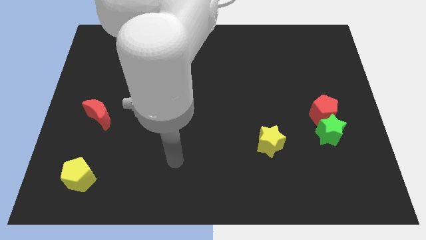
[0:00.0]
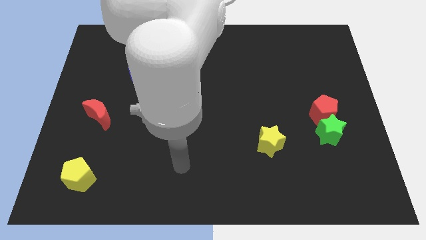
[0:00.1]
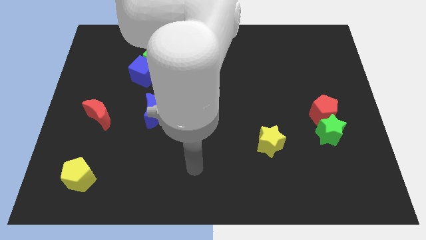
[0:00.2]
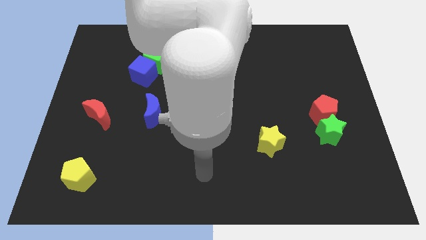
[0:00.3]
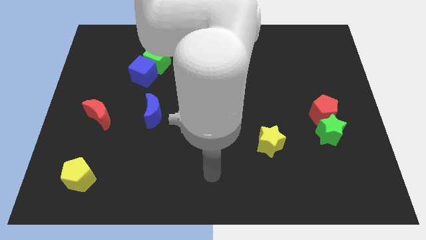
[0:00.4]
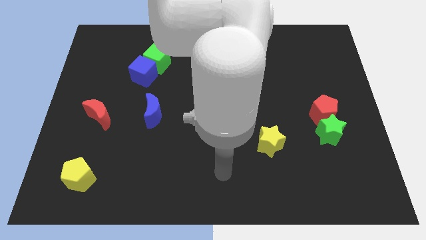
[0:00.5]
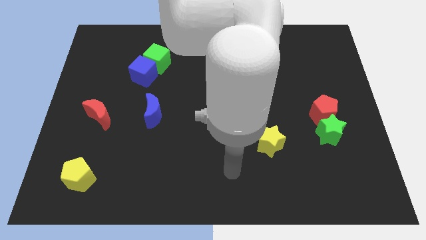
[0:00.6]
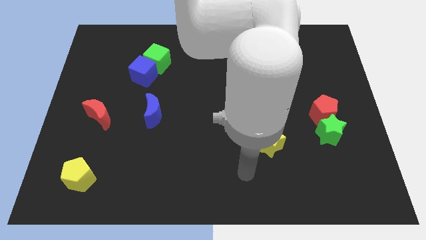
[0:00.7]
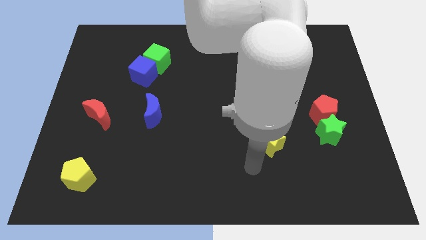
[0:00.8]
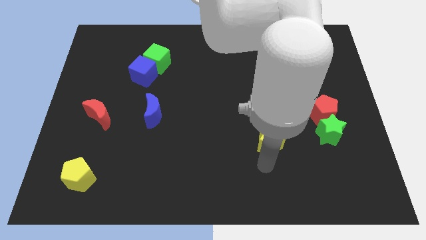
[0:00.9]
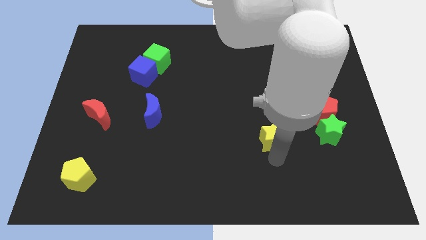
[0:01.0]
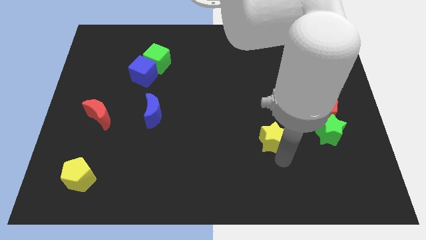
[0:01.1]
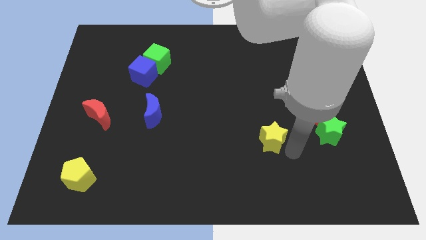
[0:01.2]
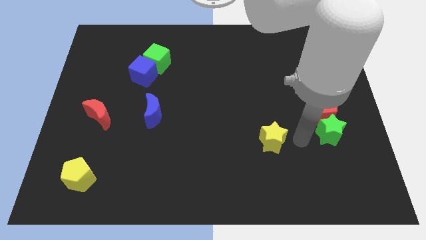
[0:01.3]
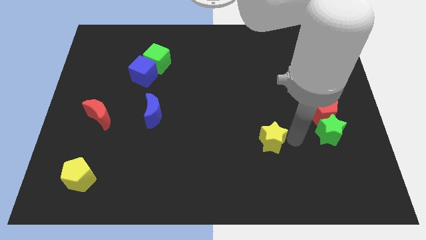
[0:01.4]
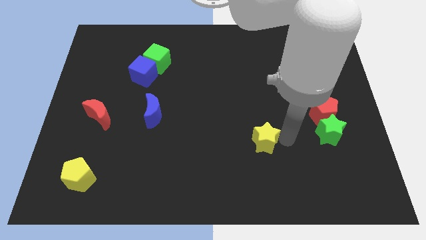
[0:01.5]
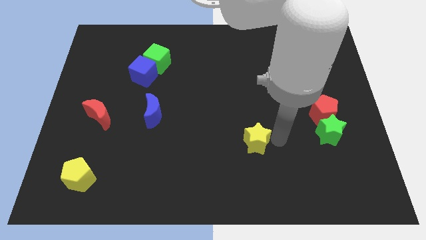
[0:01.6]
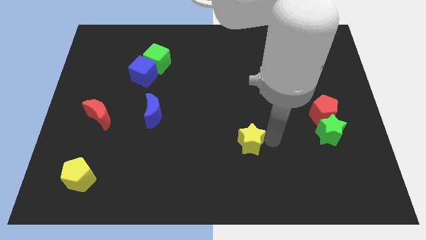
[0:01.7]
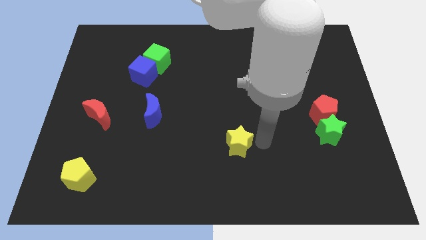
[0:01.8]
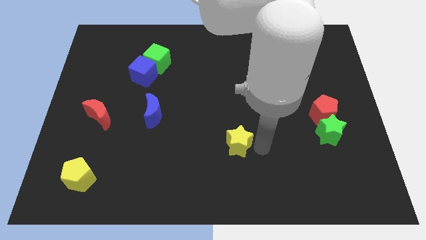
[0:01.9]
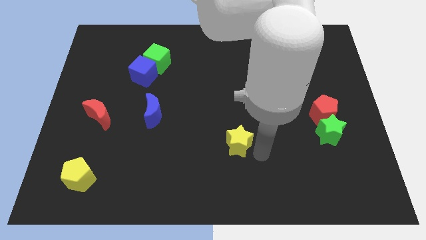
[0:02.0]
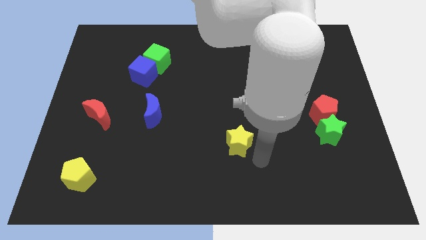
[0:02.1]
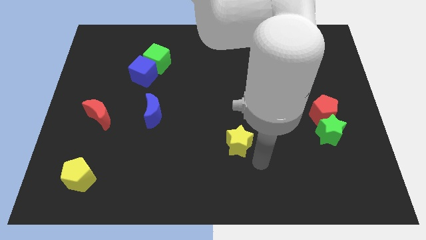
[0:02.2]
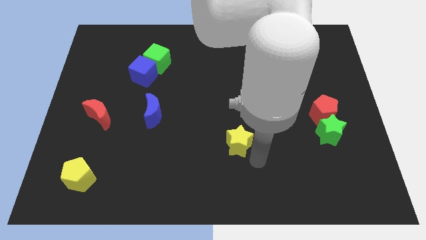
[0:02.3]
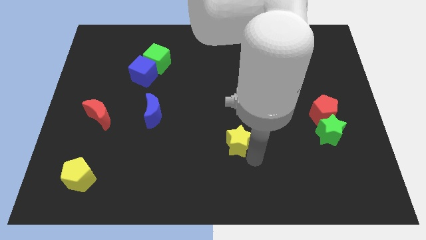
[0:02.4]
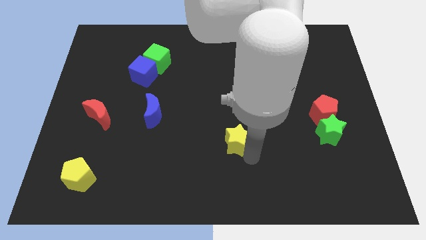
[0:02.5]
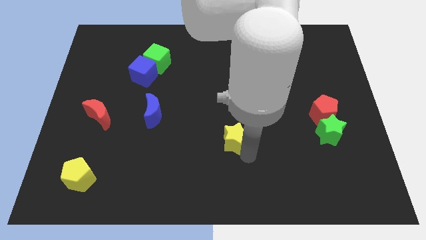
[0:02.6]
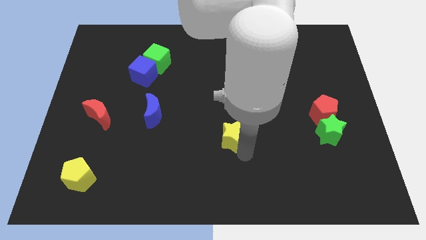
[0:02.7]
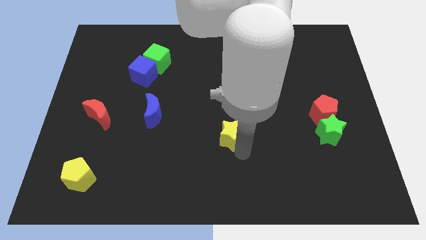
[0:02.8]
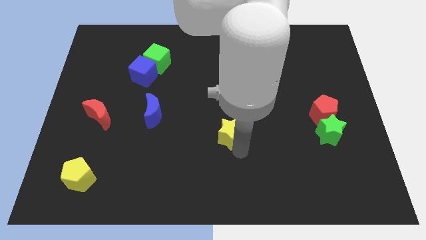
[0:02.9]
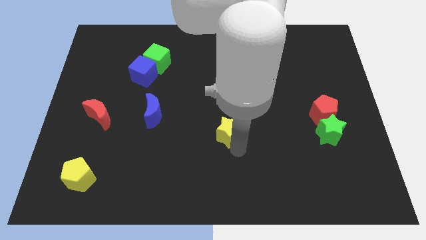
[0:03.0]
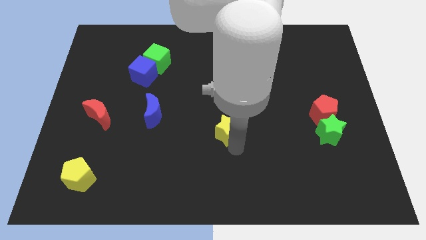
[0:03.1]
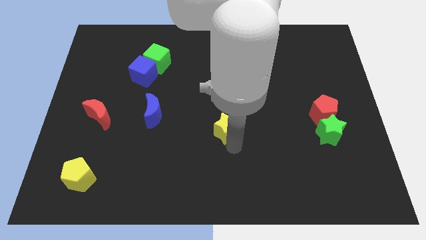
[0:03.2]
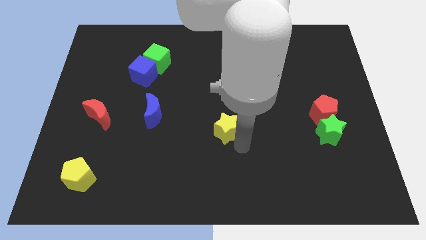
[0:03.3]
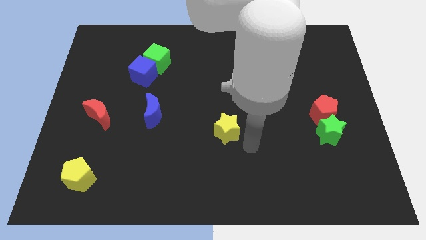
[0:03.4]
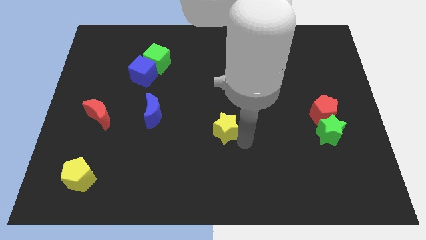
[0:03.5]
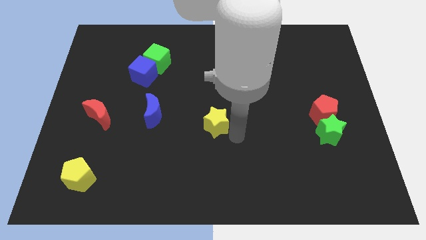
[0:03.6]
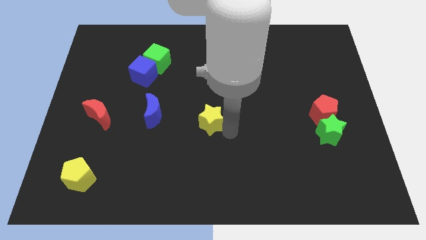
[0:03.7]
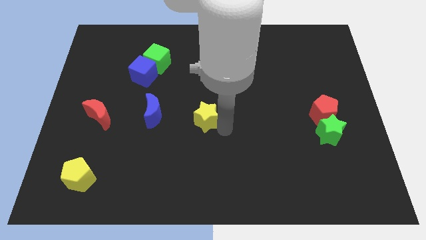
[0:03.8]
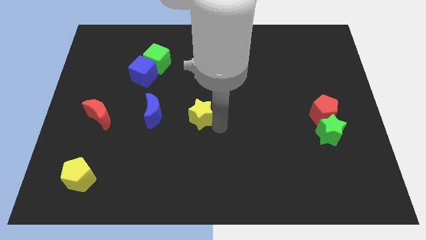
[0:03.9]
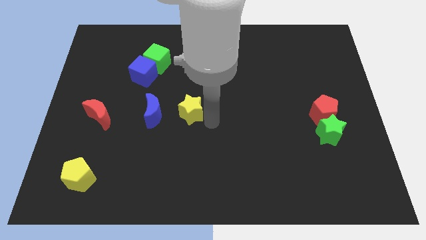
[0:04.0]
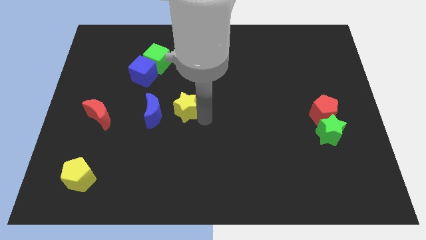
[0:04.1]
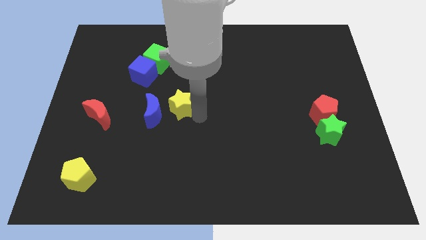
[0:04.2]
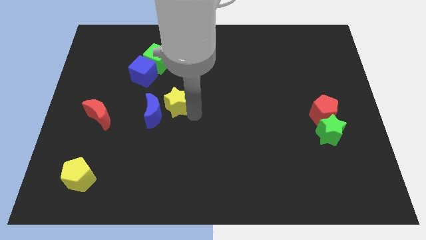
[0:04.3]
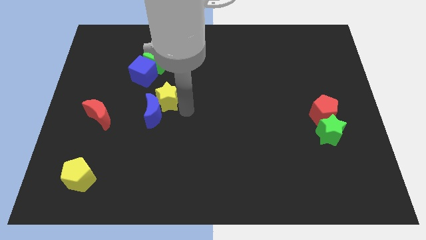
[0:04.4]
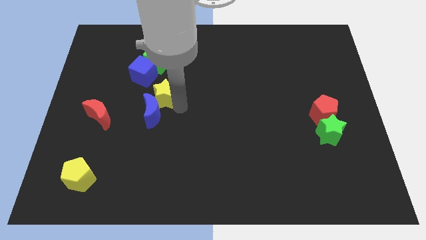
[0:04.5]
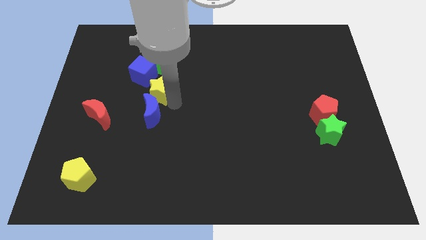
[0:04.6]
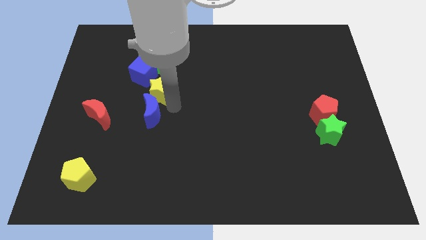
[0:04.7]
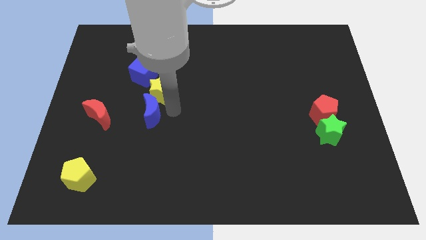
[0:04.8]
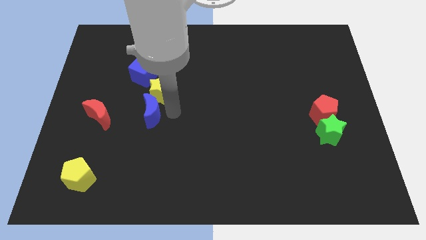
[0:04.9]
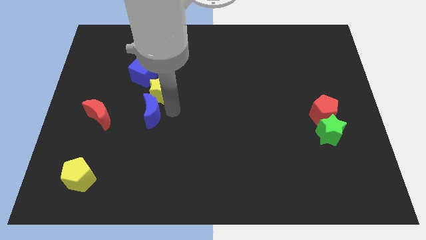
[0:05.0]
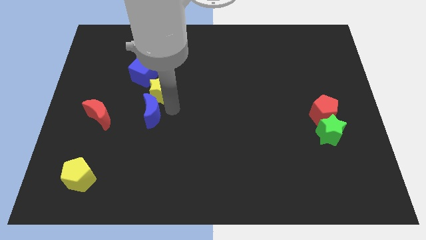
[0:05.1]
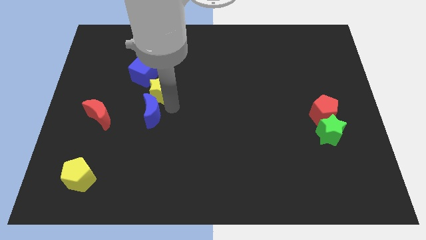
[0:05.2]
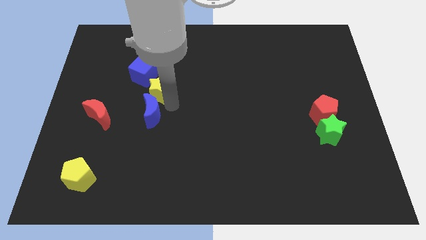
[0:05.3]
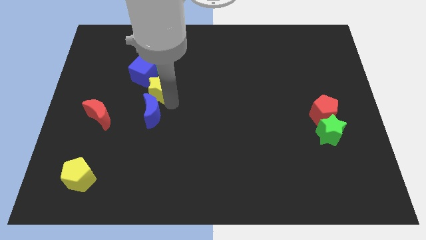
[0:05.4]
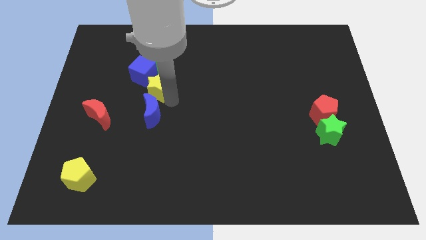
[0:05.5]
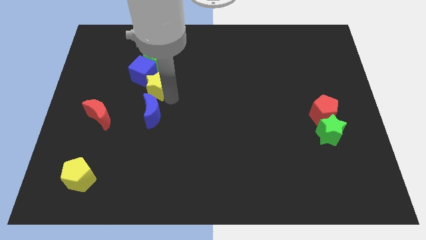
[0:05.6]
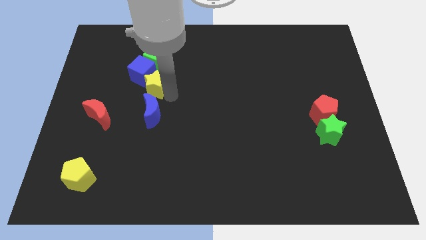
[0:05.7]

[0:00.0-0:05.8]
put the yellow star towards the blue cube

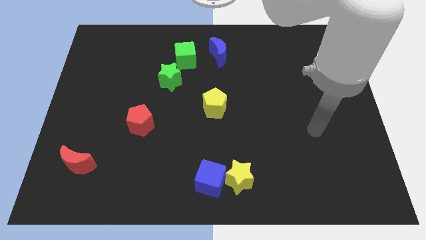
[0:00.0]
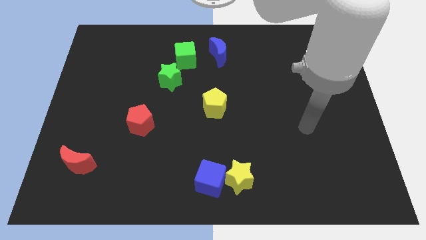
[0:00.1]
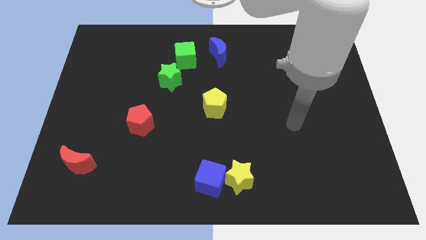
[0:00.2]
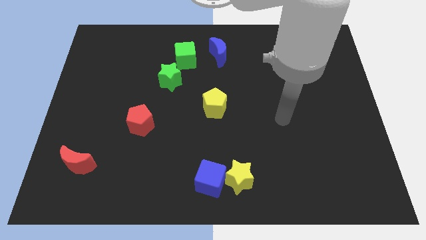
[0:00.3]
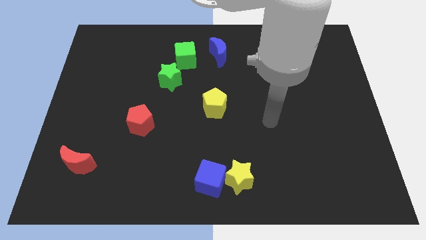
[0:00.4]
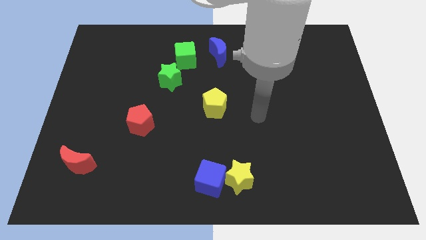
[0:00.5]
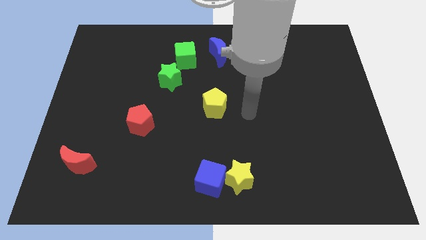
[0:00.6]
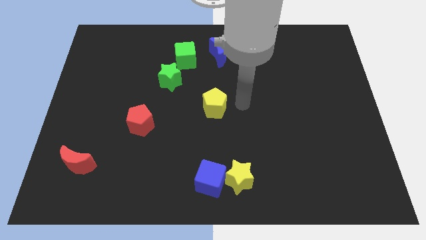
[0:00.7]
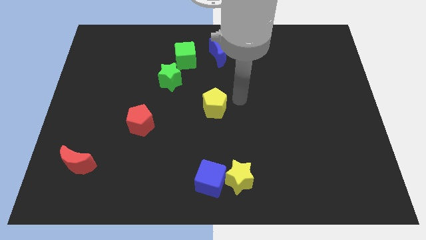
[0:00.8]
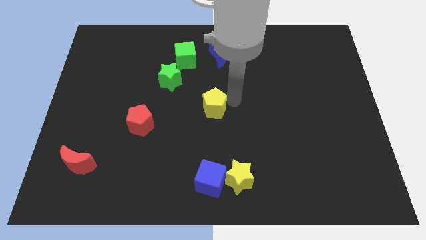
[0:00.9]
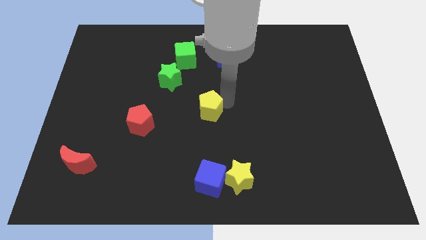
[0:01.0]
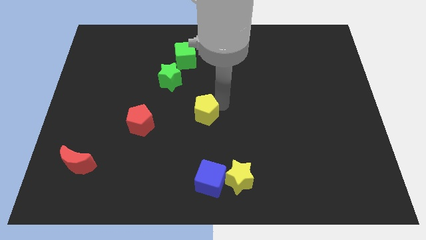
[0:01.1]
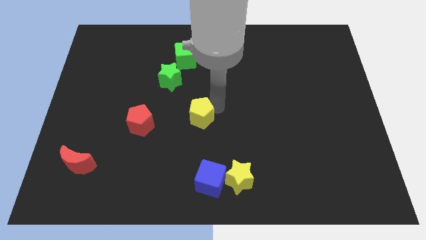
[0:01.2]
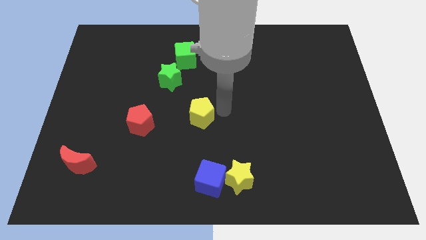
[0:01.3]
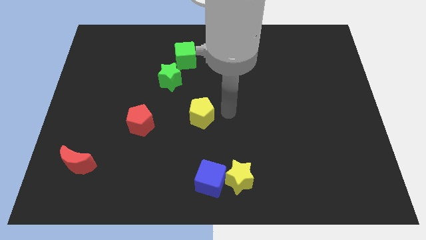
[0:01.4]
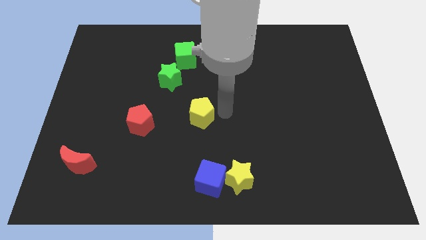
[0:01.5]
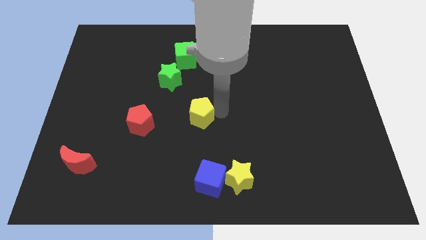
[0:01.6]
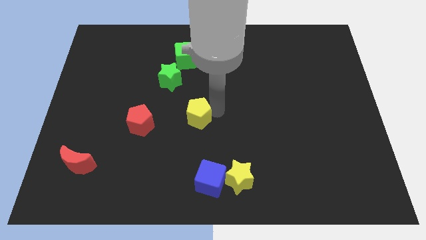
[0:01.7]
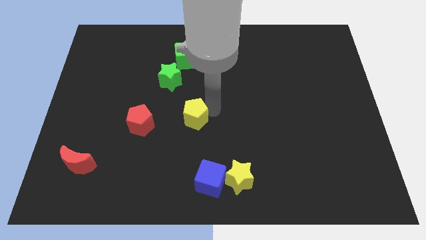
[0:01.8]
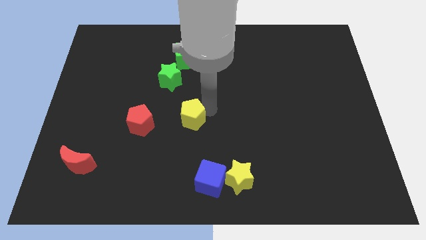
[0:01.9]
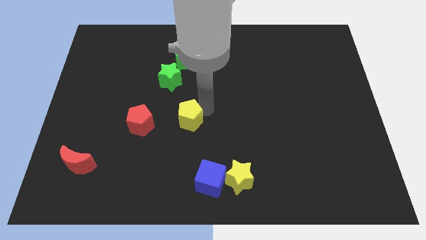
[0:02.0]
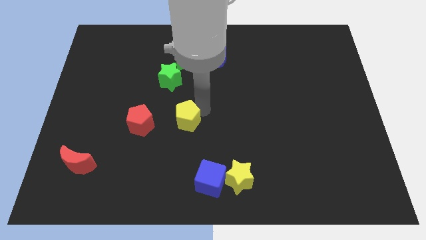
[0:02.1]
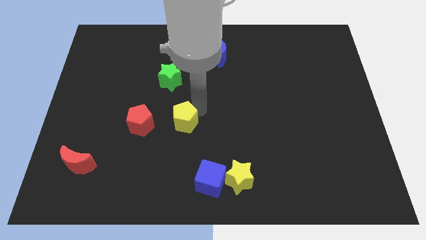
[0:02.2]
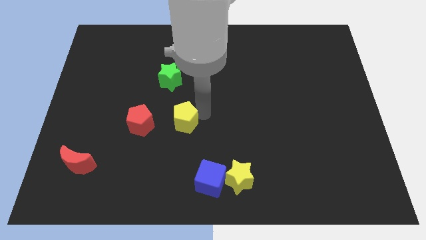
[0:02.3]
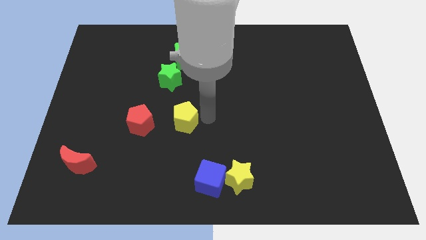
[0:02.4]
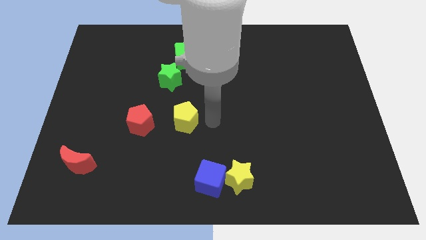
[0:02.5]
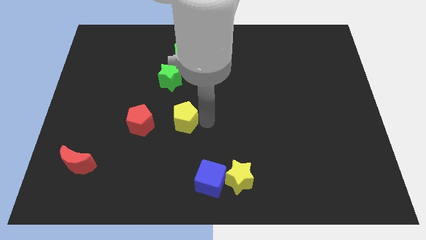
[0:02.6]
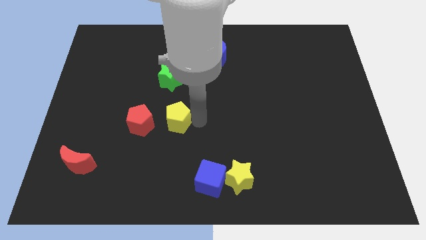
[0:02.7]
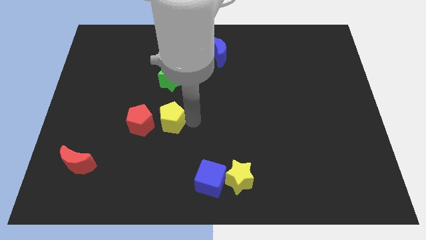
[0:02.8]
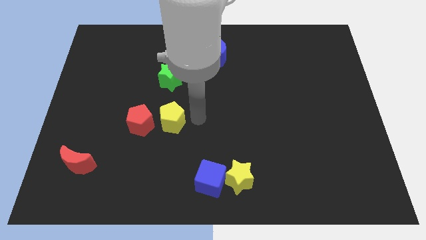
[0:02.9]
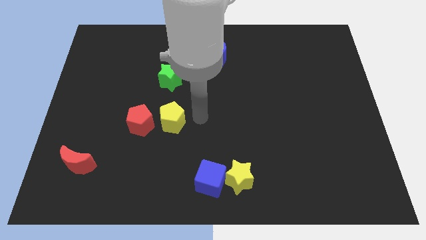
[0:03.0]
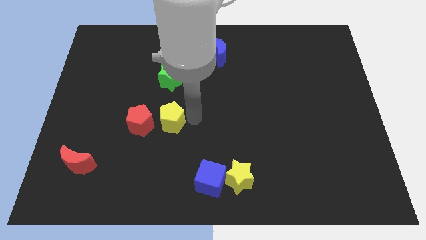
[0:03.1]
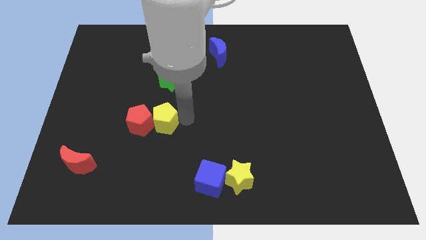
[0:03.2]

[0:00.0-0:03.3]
move the yellow pentagon close to the red pentagon
